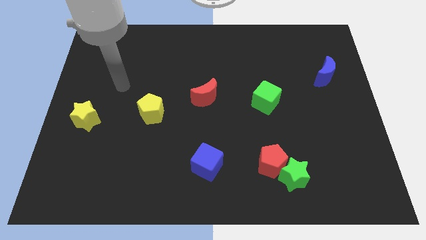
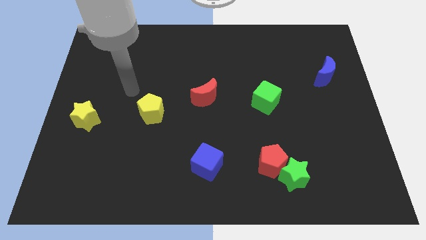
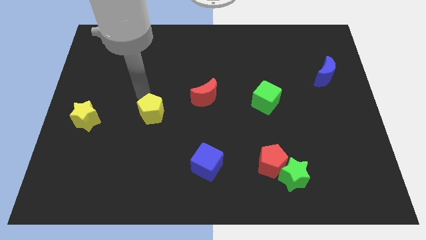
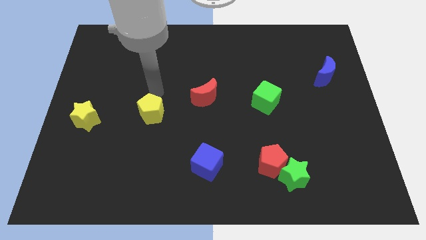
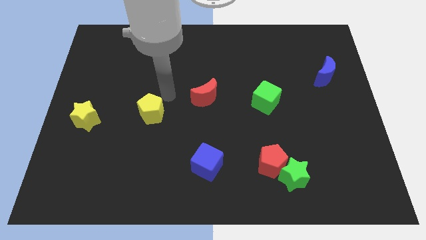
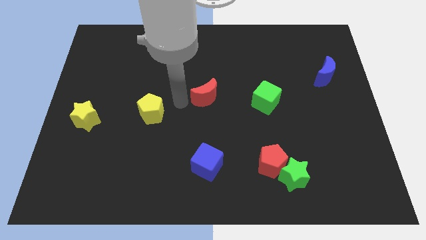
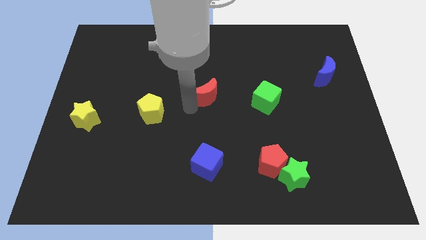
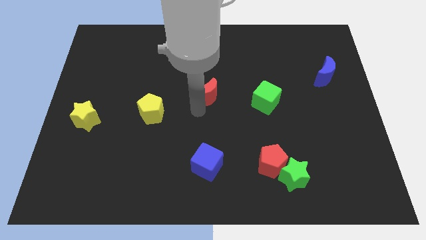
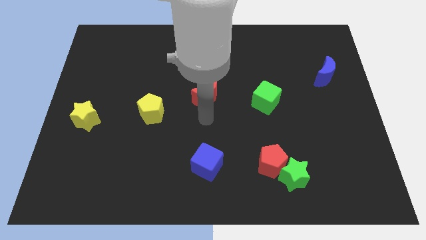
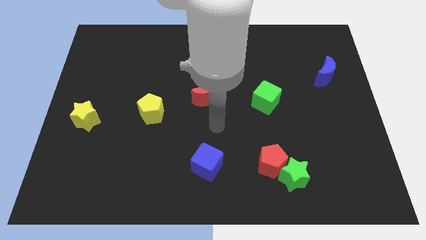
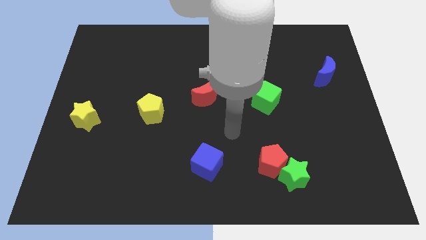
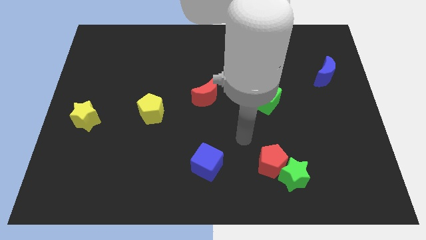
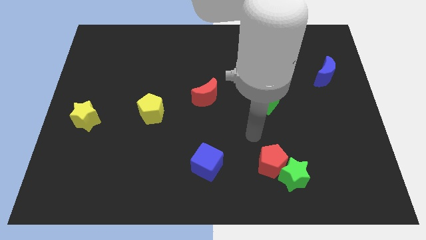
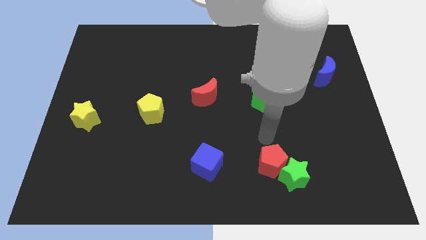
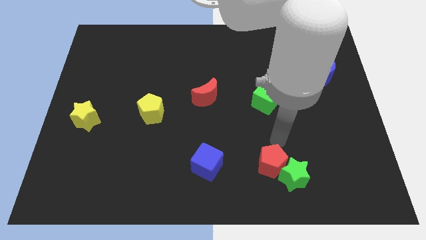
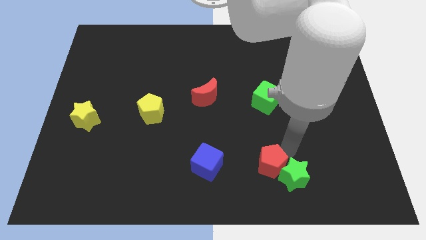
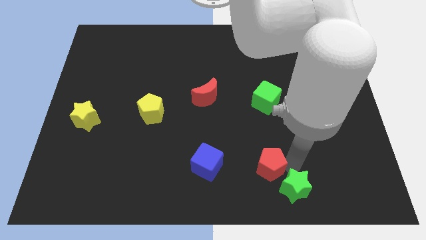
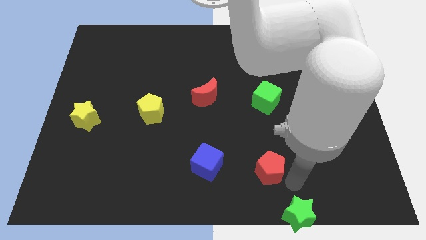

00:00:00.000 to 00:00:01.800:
move the red pentagon away from the green star

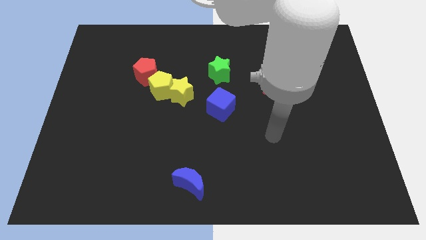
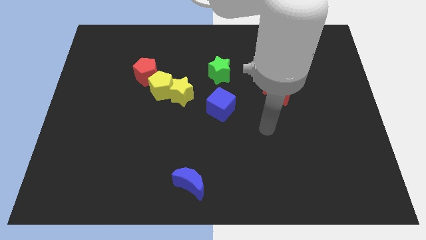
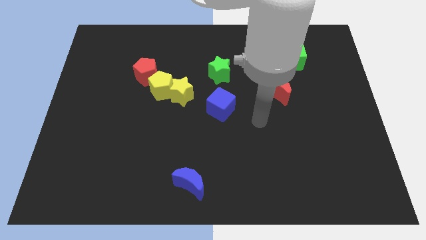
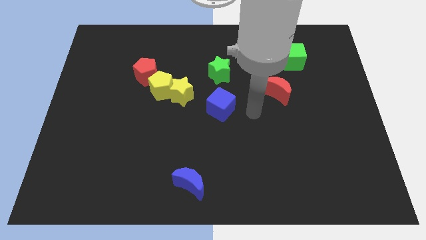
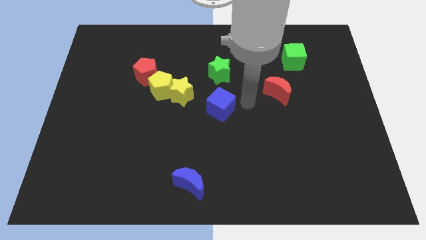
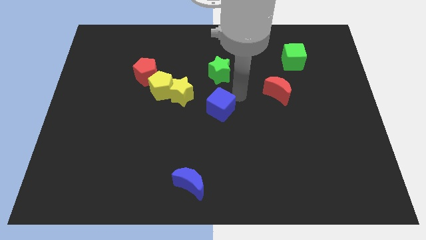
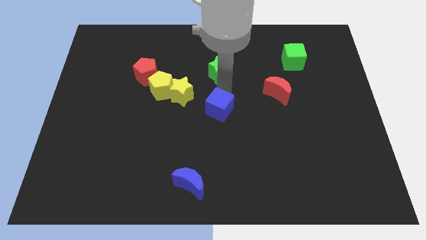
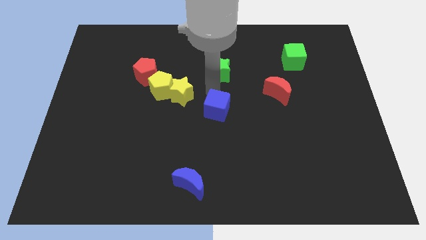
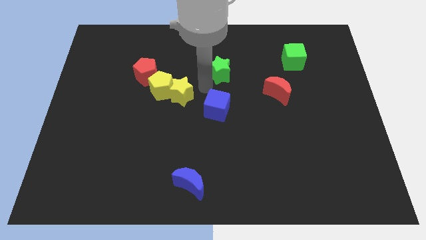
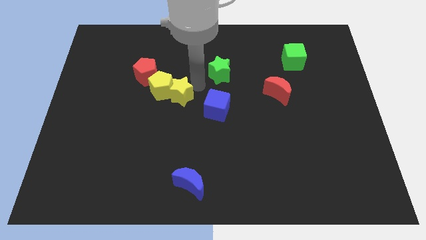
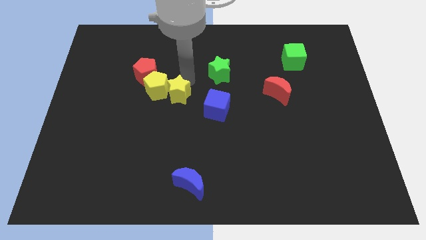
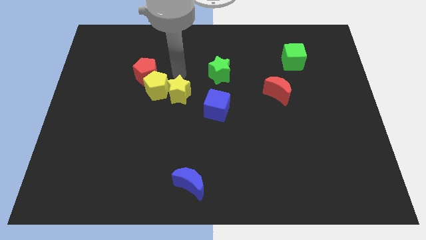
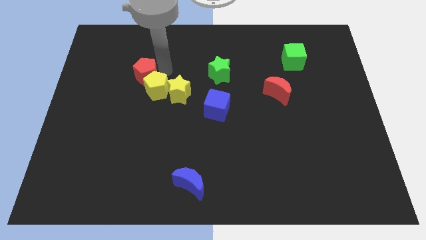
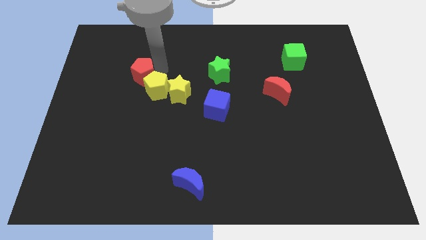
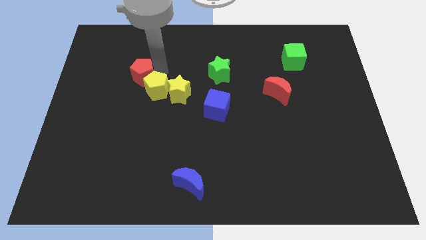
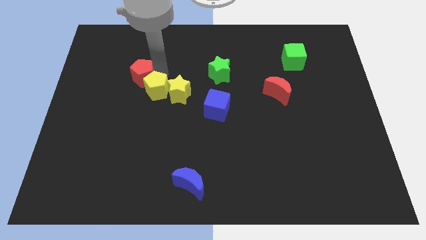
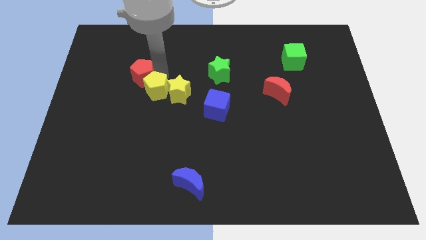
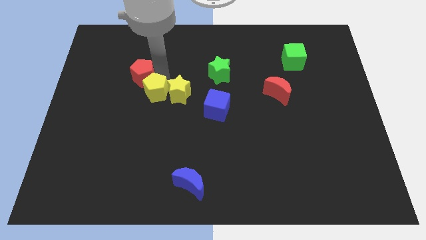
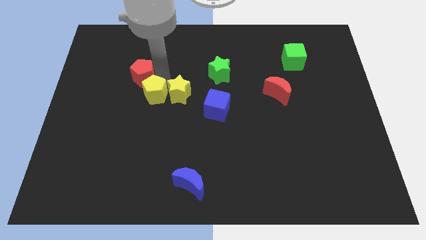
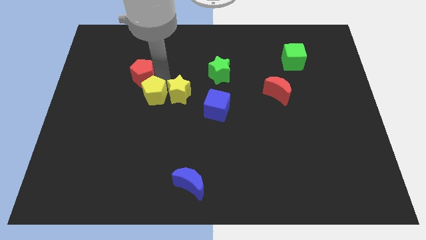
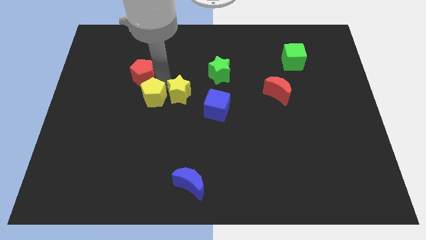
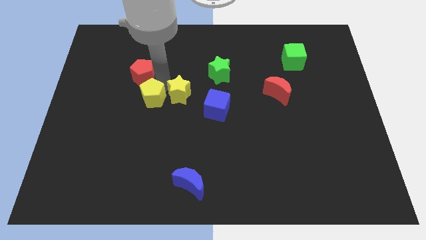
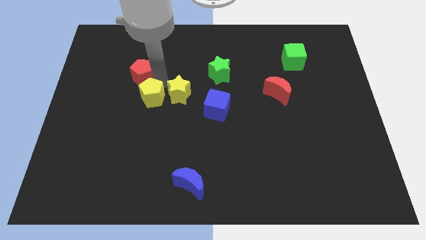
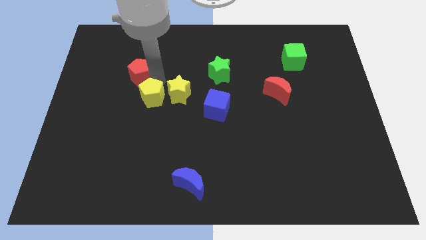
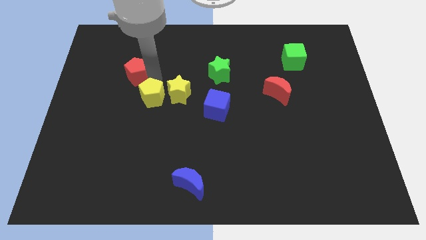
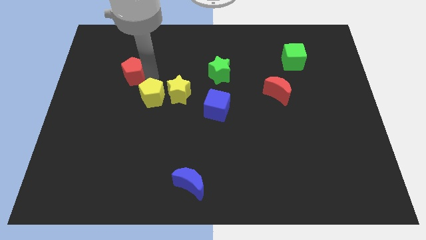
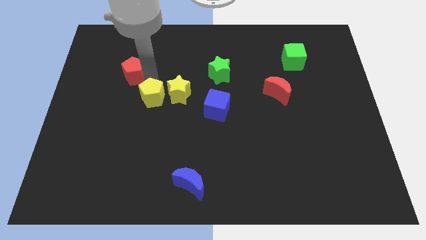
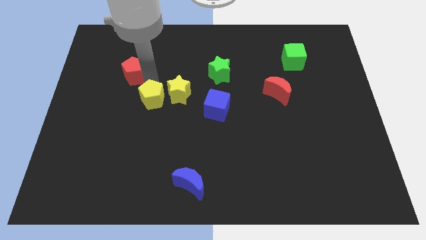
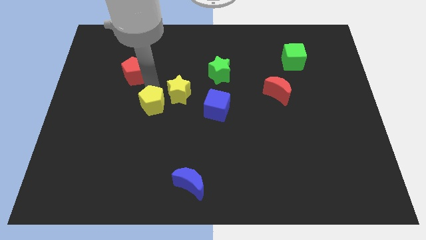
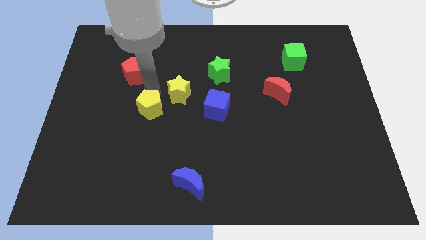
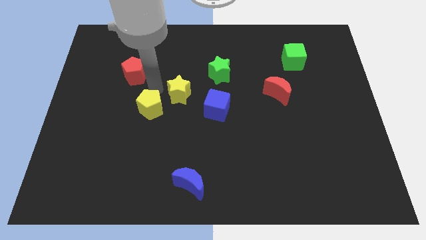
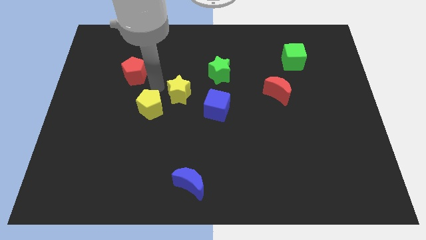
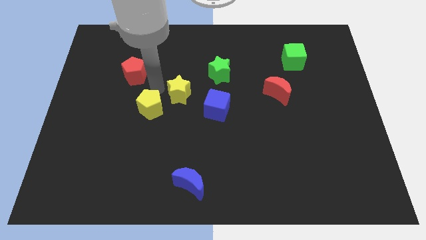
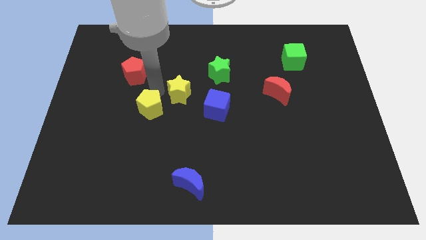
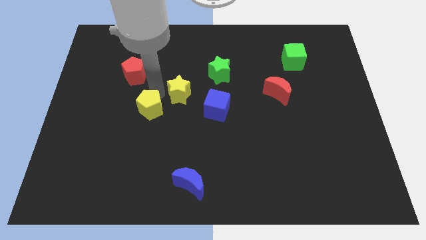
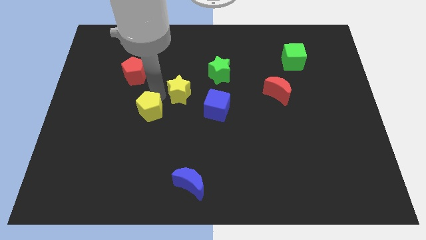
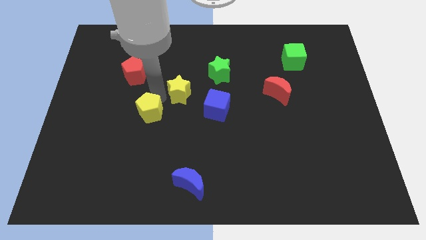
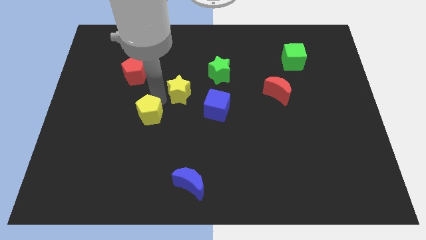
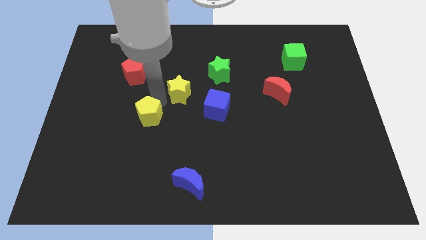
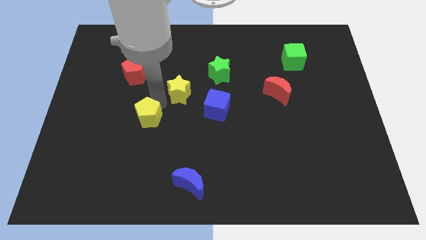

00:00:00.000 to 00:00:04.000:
pull the yellow pentagon apart from the yellow star and red pentagon

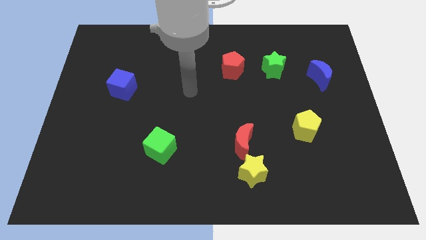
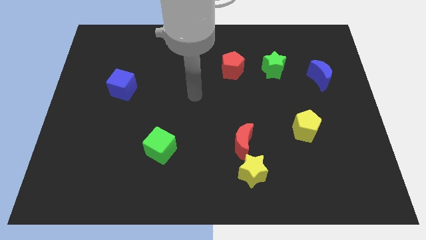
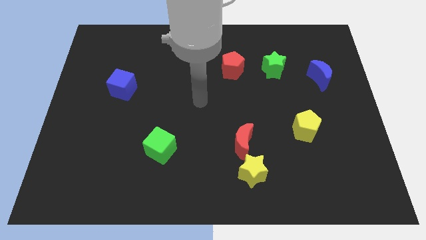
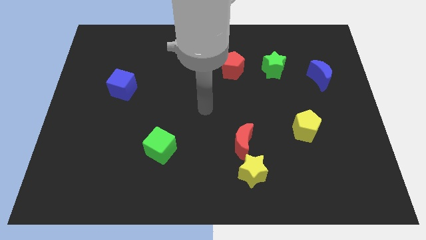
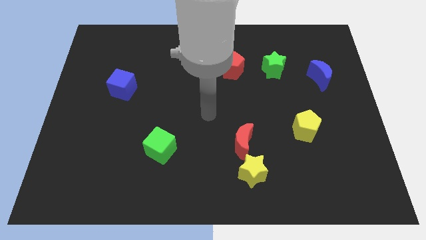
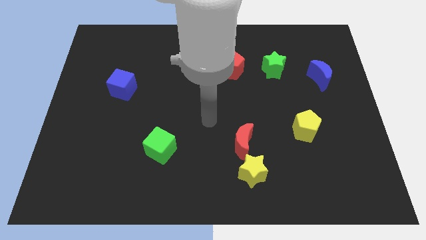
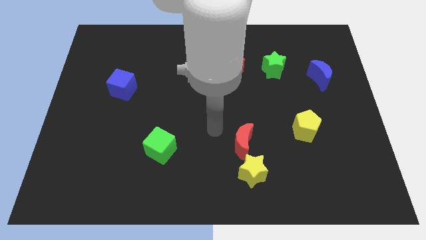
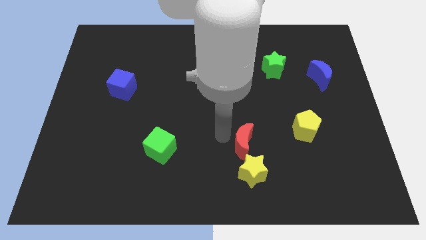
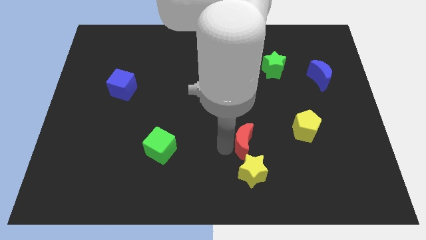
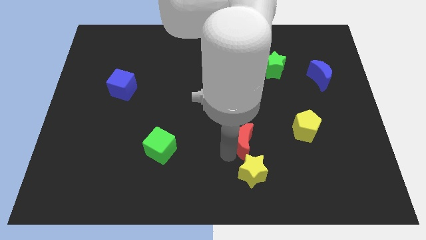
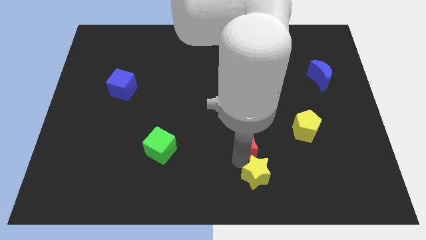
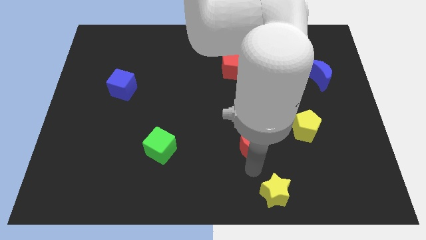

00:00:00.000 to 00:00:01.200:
move the red moon away from the yellow star

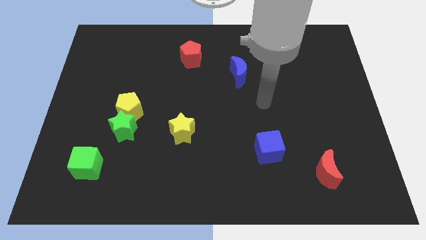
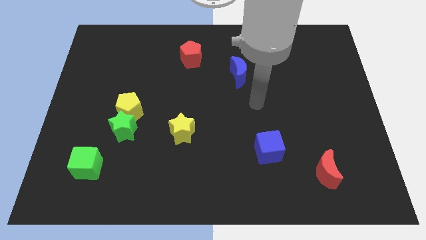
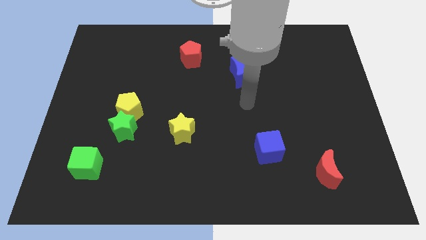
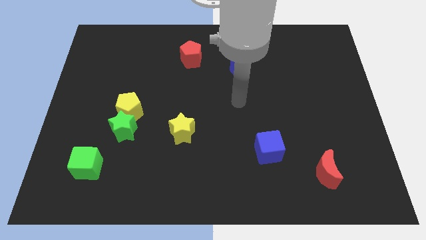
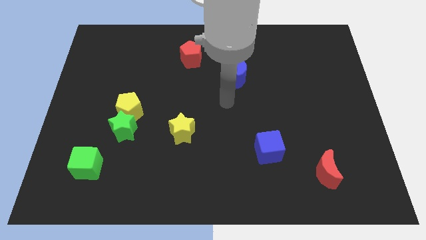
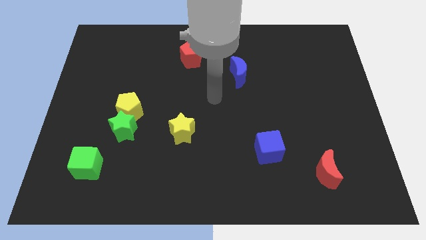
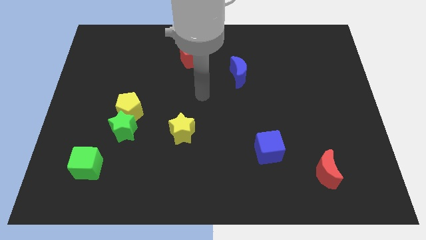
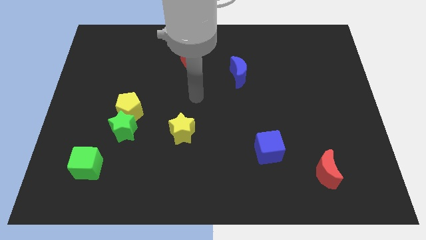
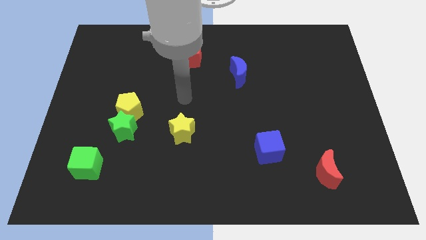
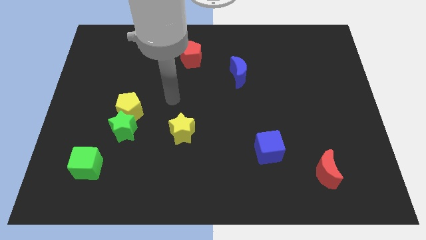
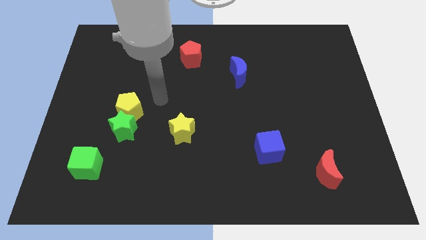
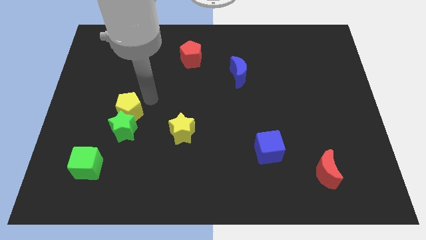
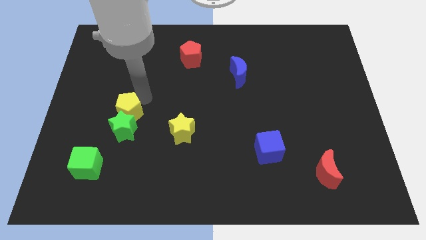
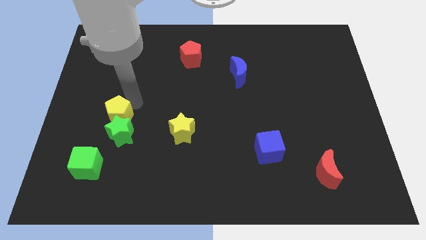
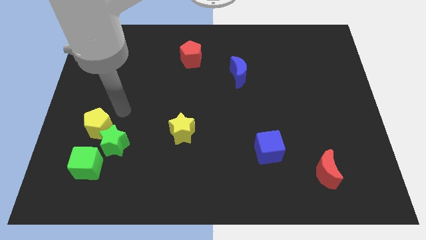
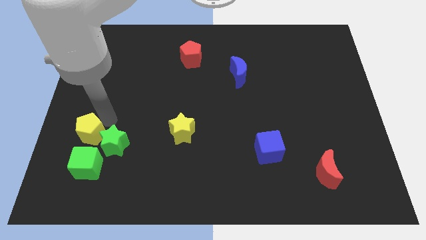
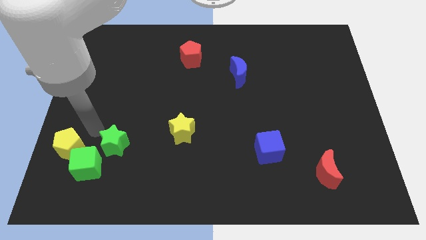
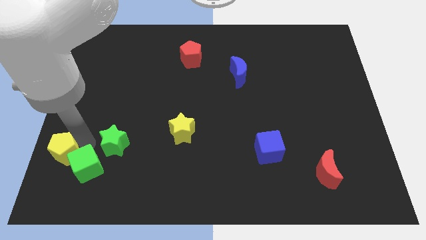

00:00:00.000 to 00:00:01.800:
move the green star away from the yellow pentagon

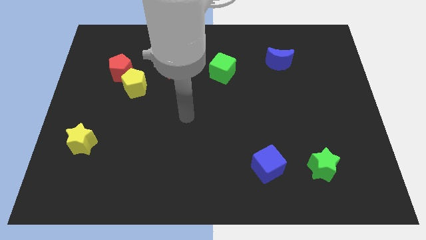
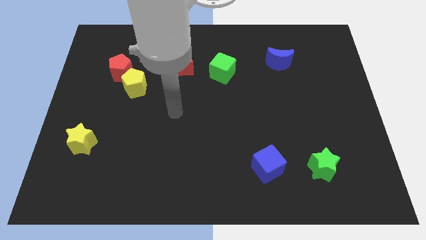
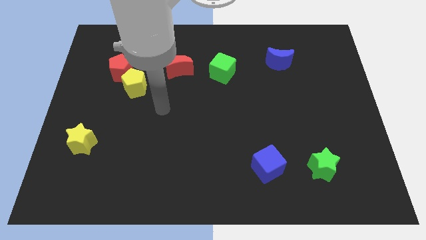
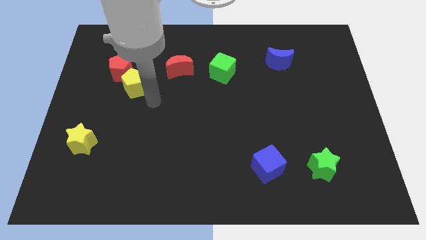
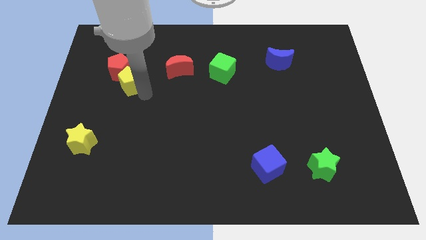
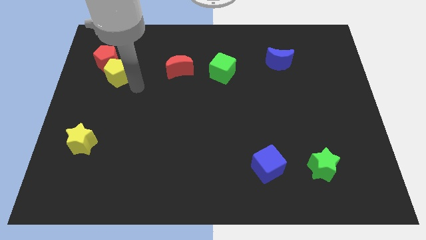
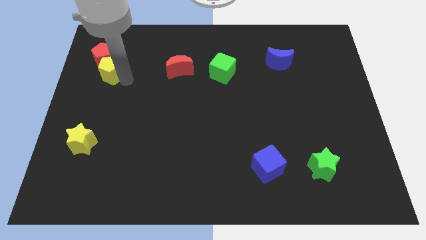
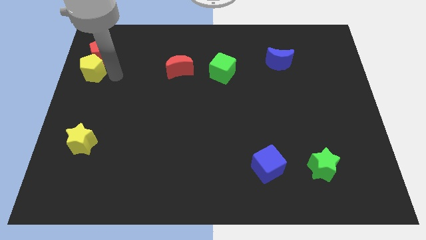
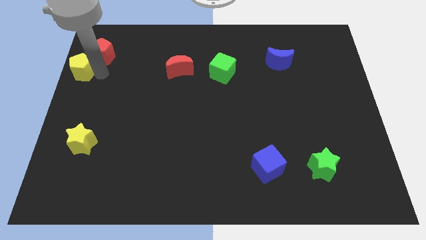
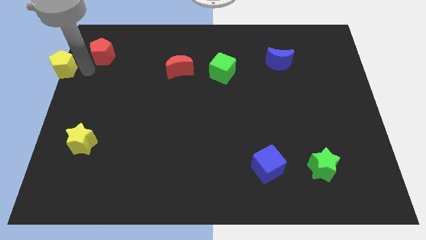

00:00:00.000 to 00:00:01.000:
pull the red pentagon apart from the yellow pentagon
